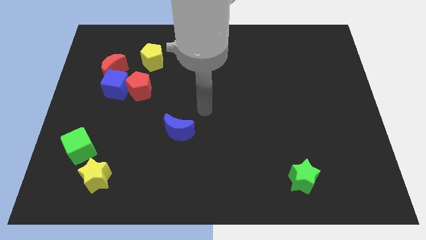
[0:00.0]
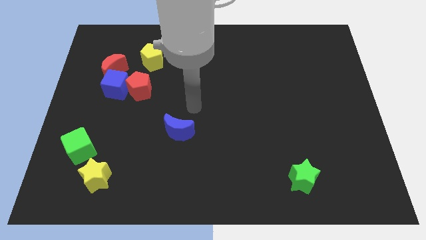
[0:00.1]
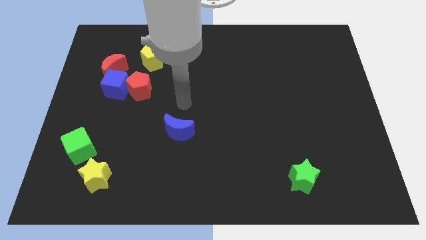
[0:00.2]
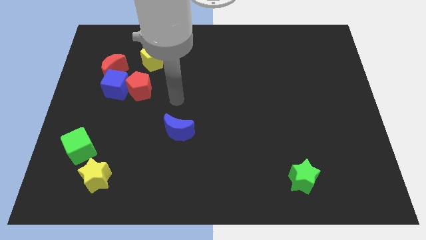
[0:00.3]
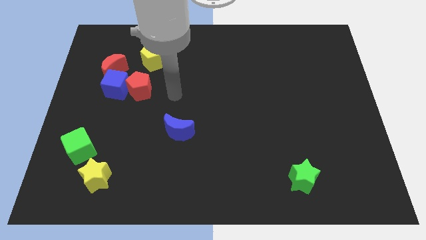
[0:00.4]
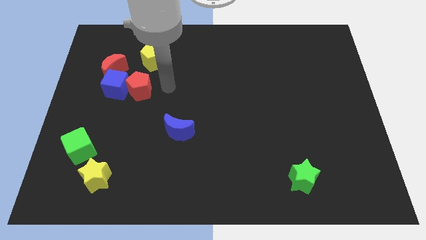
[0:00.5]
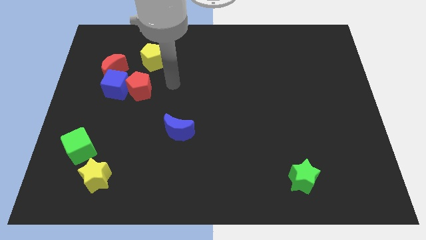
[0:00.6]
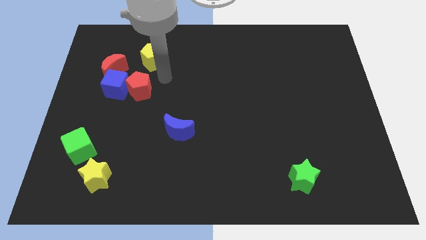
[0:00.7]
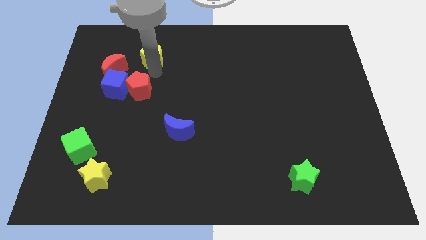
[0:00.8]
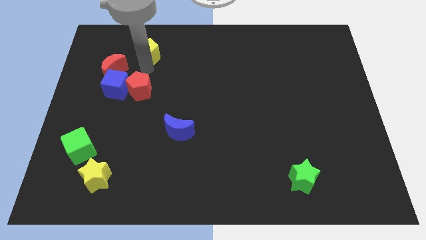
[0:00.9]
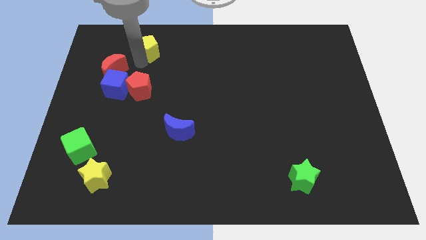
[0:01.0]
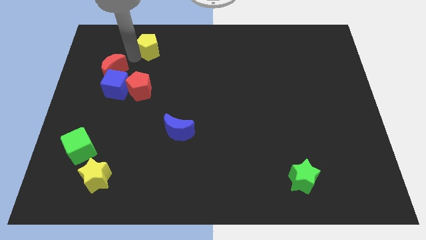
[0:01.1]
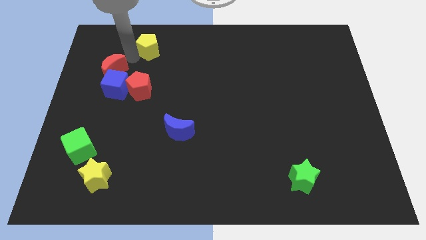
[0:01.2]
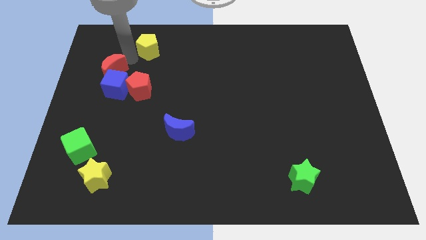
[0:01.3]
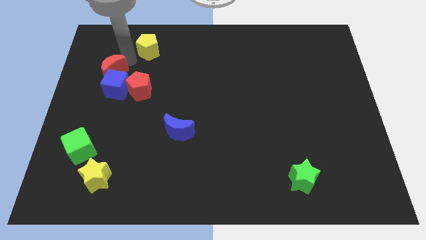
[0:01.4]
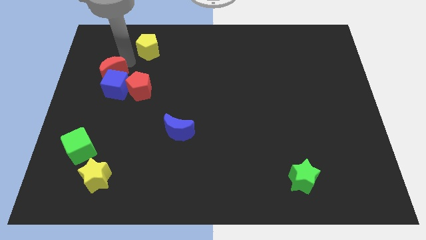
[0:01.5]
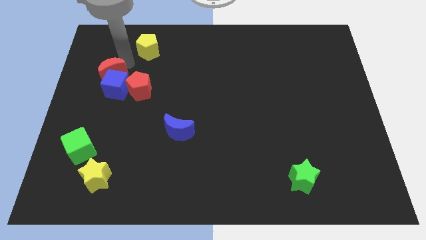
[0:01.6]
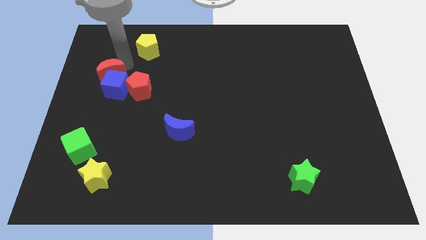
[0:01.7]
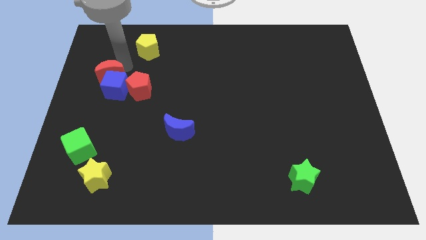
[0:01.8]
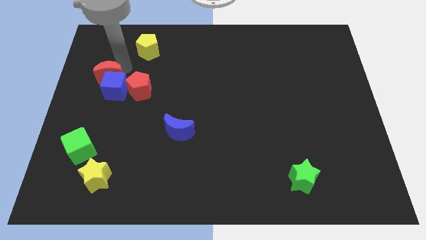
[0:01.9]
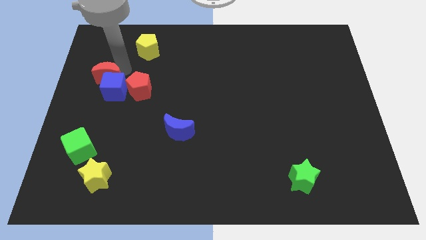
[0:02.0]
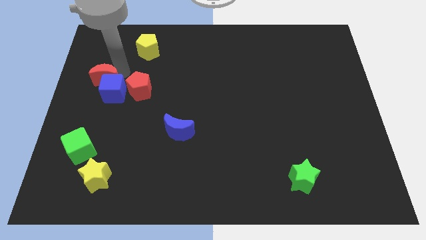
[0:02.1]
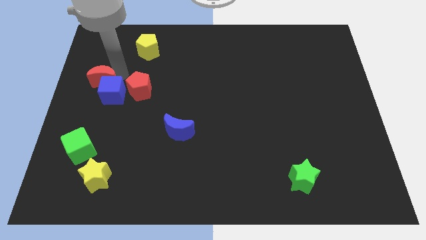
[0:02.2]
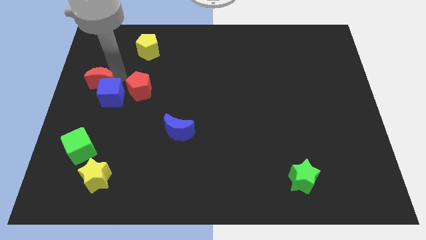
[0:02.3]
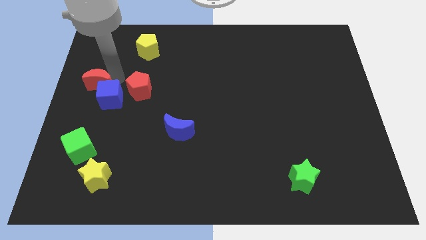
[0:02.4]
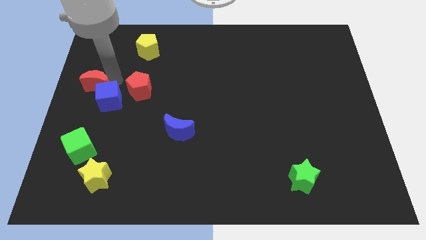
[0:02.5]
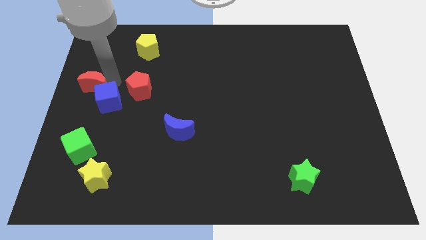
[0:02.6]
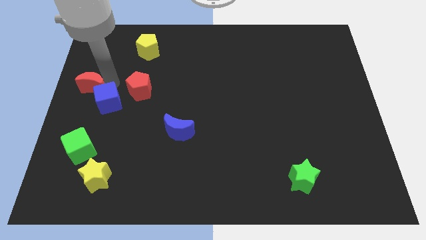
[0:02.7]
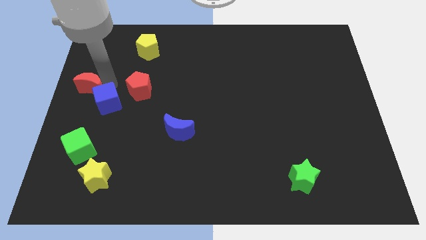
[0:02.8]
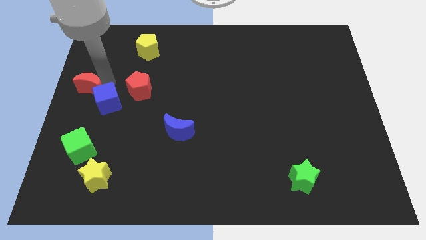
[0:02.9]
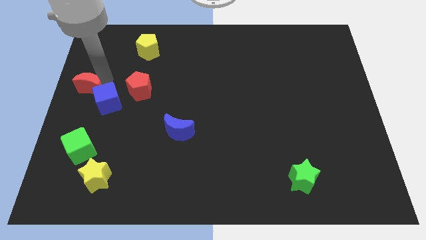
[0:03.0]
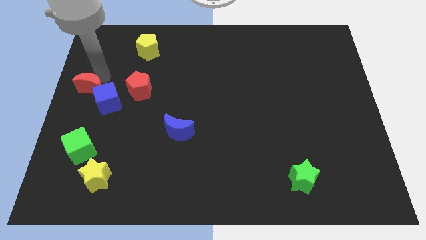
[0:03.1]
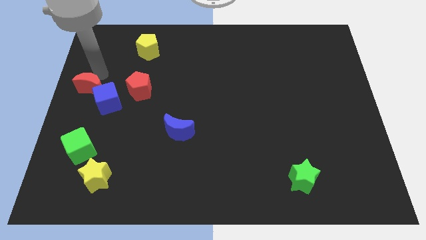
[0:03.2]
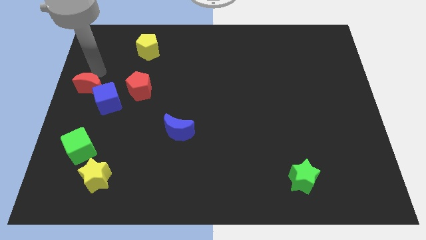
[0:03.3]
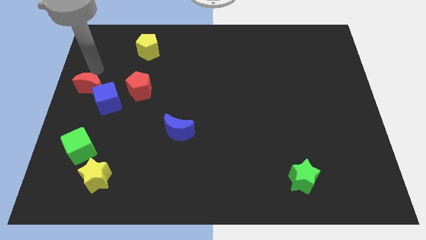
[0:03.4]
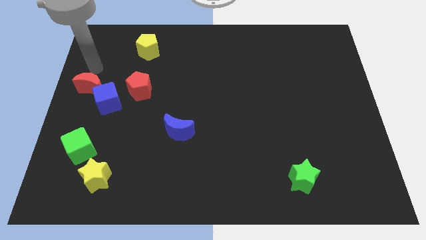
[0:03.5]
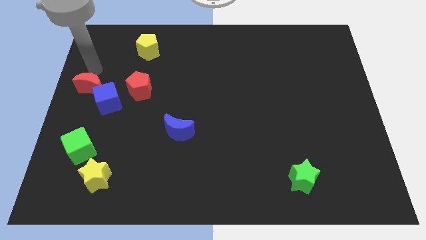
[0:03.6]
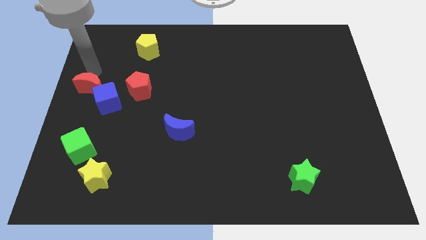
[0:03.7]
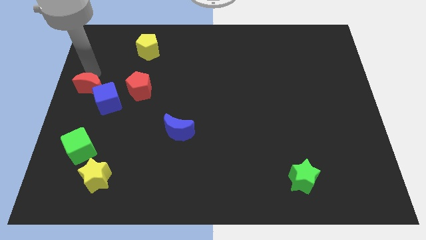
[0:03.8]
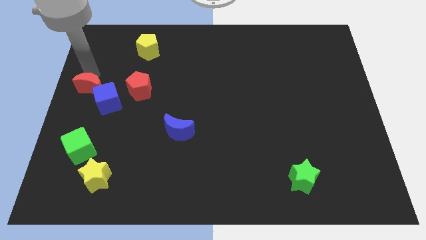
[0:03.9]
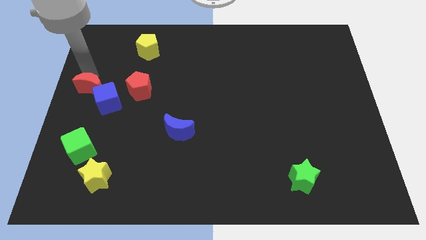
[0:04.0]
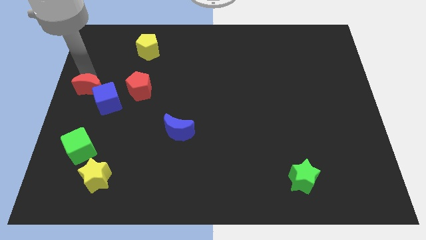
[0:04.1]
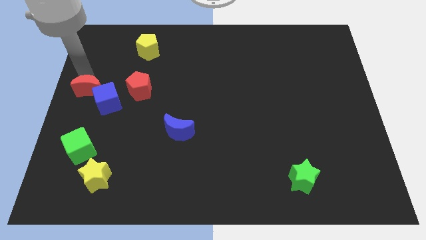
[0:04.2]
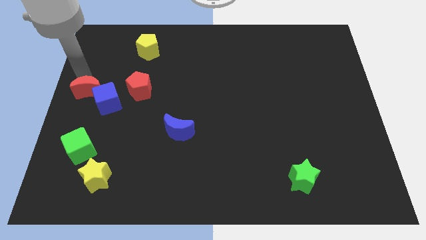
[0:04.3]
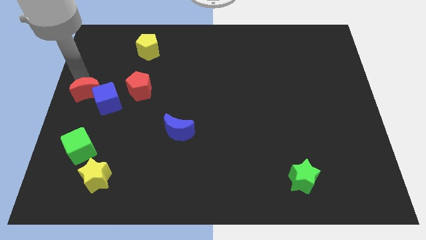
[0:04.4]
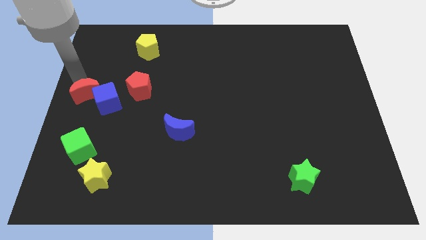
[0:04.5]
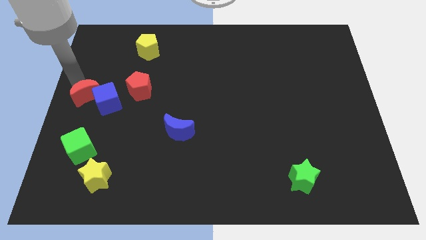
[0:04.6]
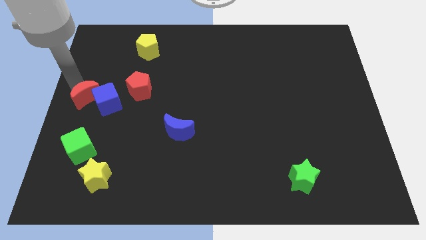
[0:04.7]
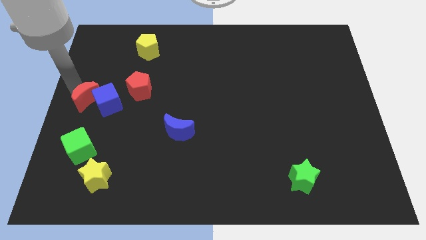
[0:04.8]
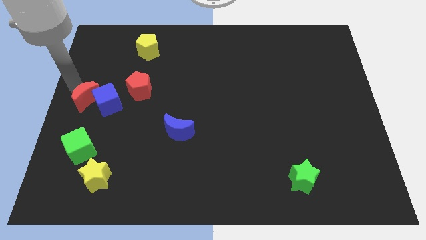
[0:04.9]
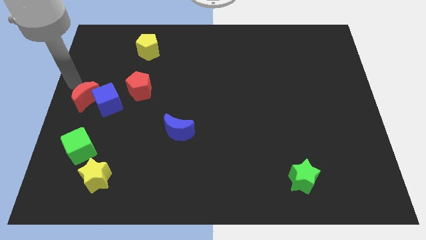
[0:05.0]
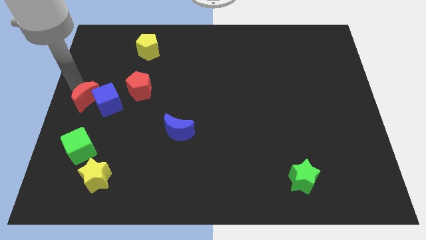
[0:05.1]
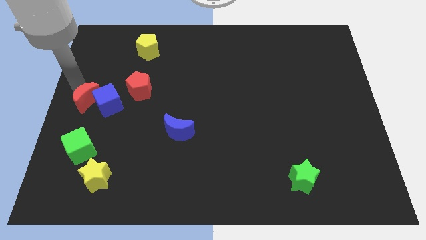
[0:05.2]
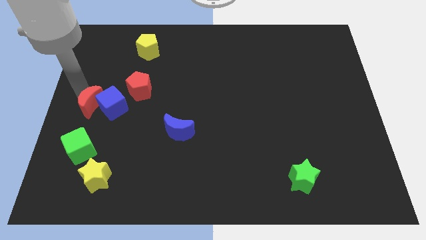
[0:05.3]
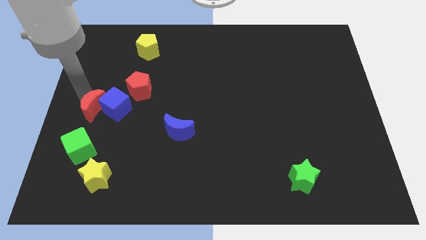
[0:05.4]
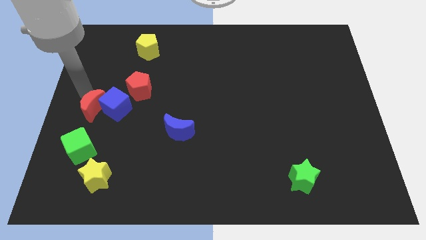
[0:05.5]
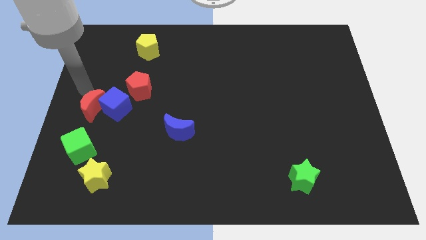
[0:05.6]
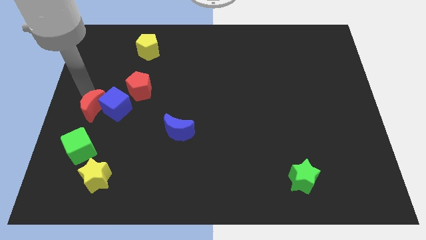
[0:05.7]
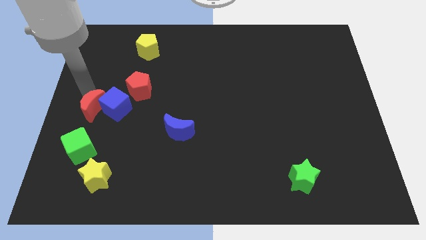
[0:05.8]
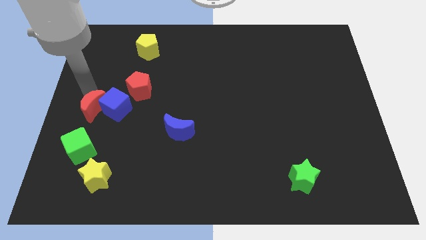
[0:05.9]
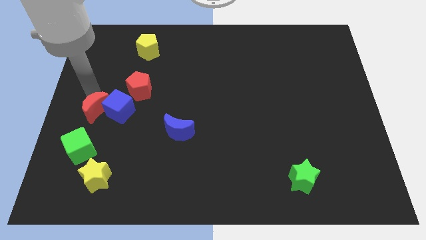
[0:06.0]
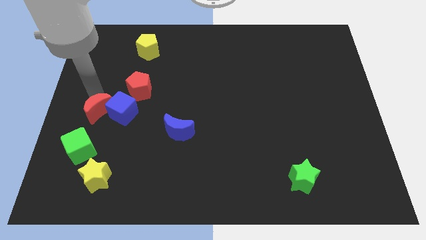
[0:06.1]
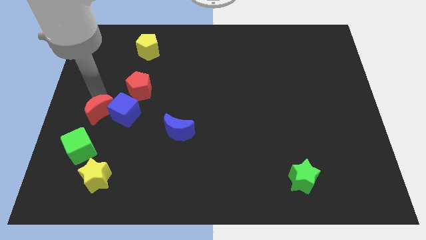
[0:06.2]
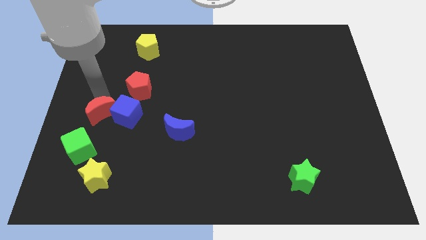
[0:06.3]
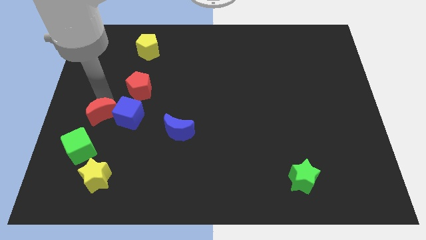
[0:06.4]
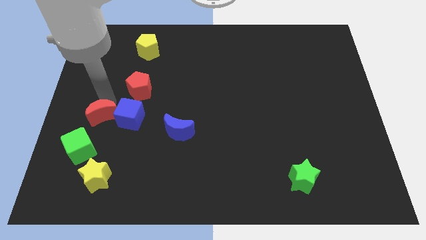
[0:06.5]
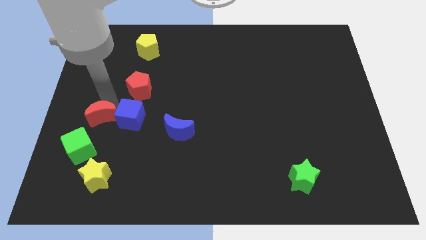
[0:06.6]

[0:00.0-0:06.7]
move the red moon to the top side of the yellow star

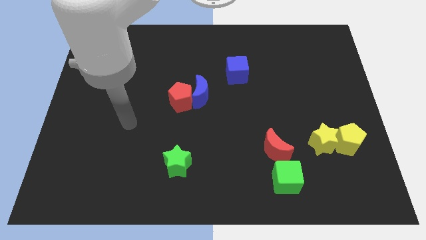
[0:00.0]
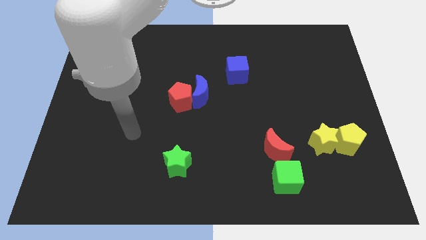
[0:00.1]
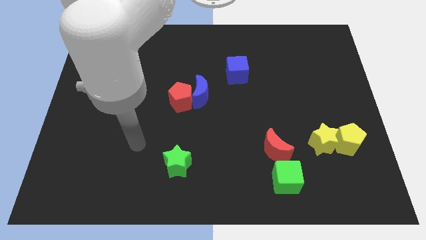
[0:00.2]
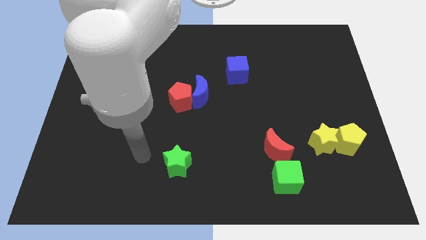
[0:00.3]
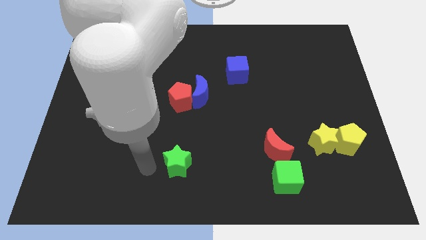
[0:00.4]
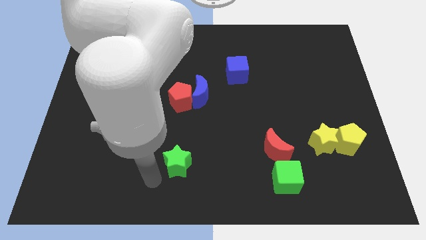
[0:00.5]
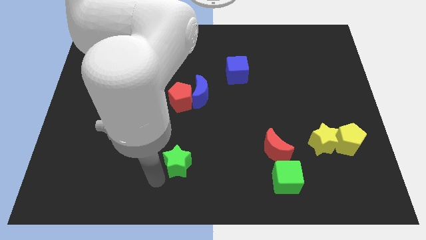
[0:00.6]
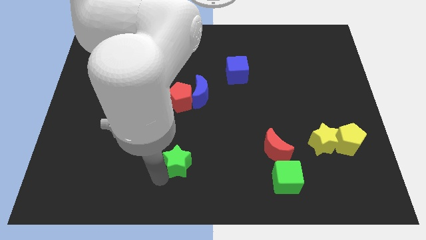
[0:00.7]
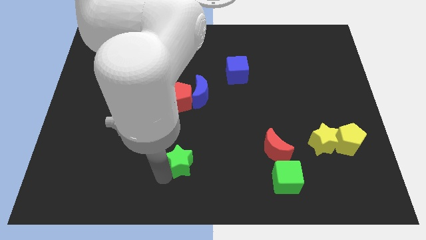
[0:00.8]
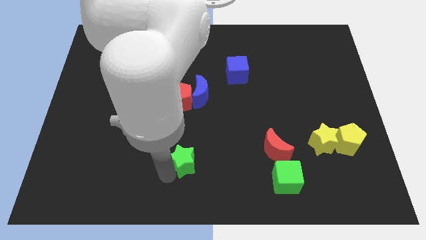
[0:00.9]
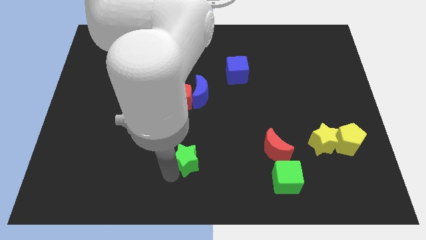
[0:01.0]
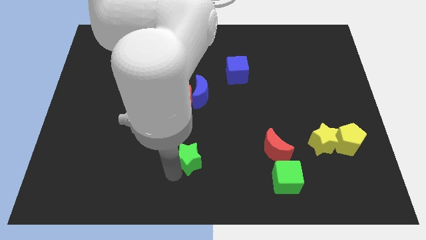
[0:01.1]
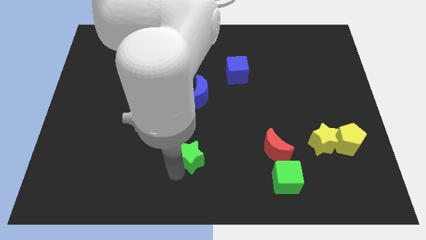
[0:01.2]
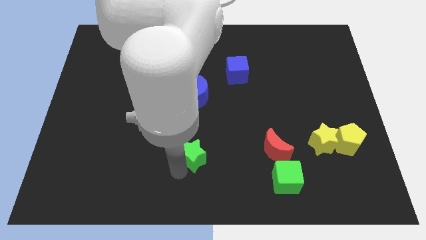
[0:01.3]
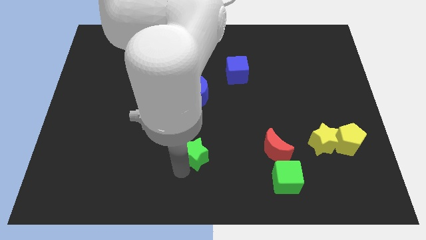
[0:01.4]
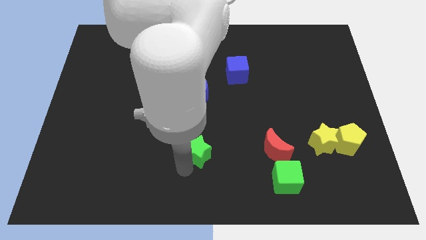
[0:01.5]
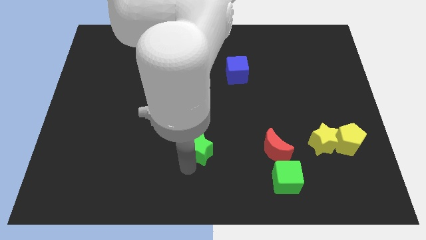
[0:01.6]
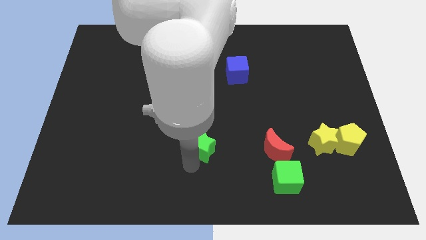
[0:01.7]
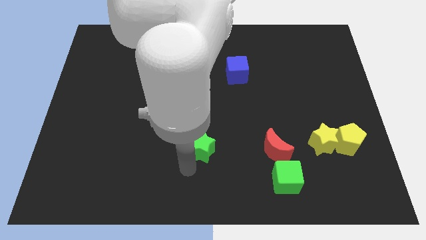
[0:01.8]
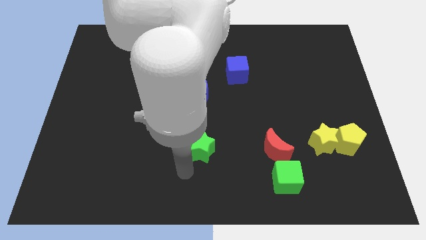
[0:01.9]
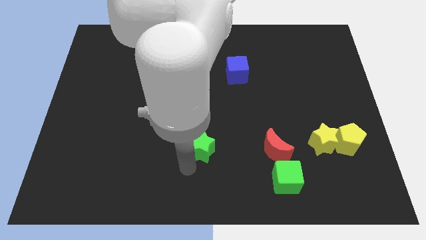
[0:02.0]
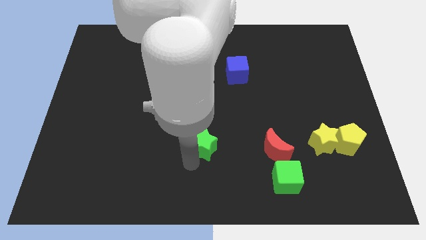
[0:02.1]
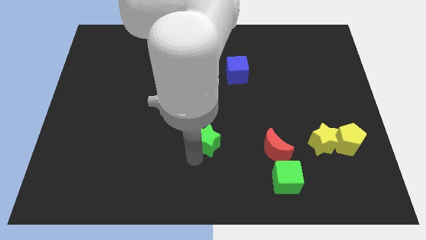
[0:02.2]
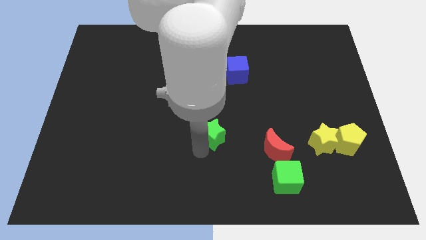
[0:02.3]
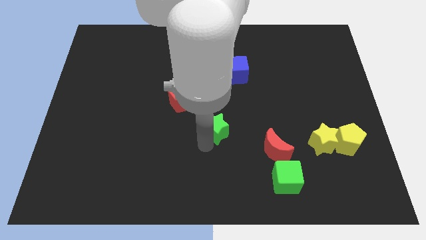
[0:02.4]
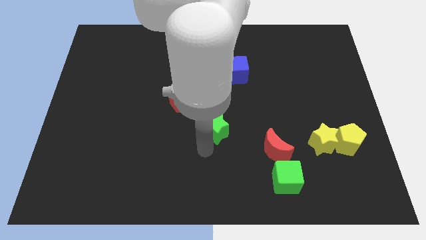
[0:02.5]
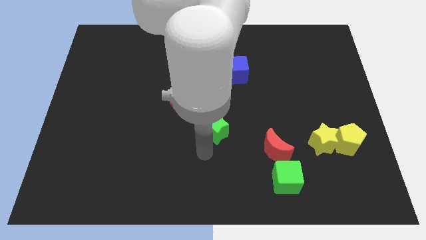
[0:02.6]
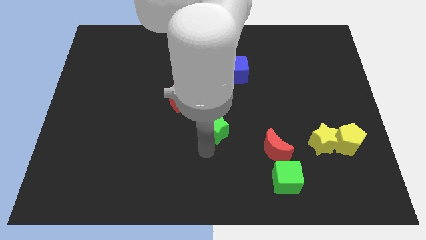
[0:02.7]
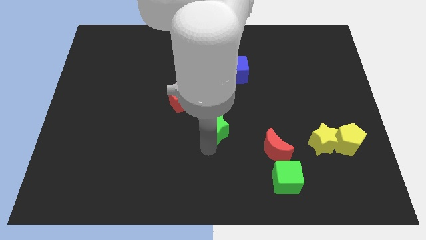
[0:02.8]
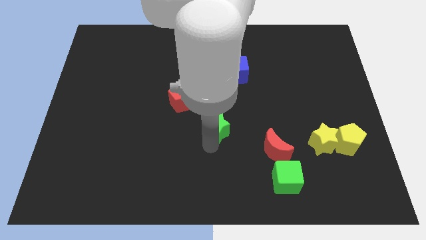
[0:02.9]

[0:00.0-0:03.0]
push the green star to the bottom right of the blue moon
